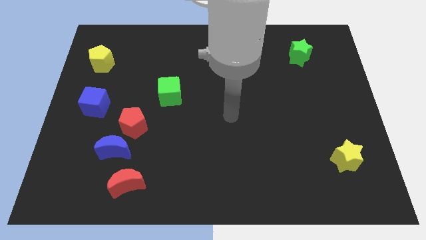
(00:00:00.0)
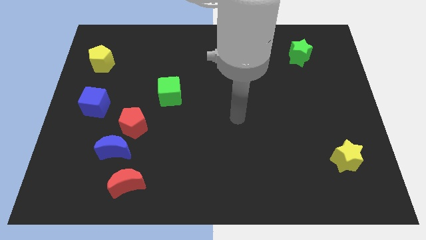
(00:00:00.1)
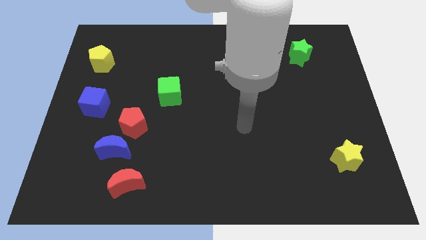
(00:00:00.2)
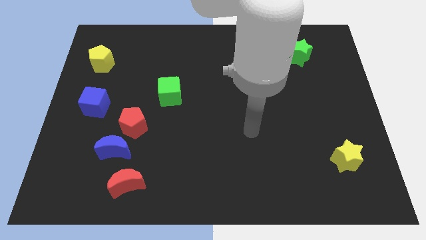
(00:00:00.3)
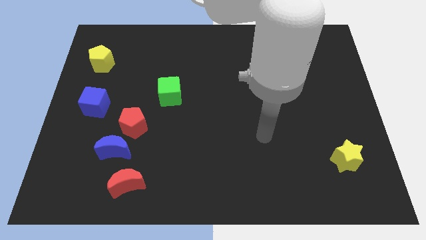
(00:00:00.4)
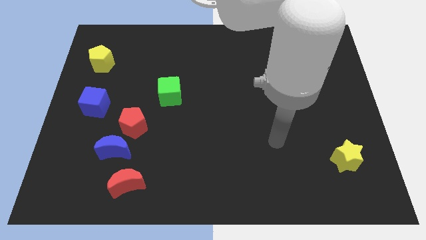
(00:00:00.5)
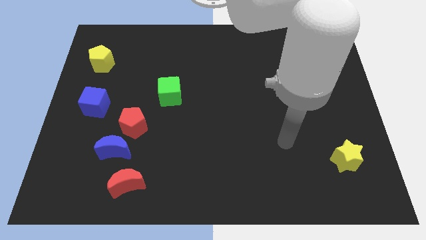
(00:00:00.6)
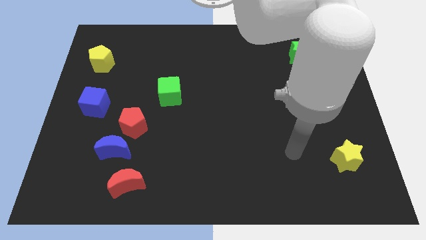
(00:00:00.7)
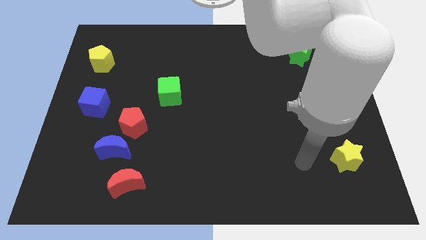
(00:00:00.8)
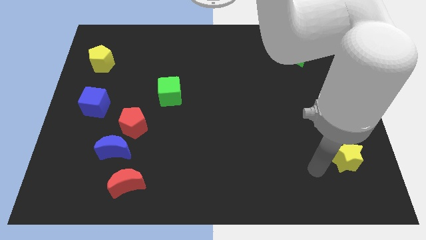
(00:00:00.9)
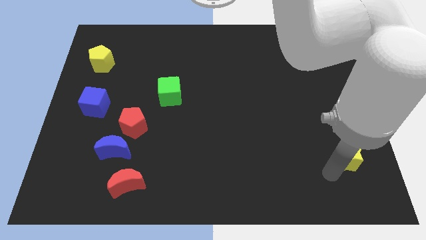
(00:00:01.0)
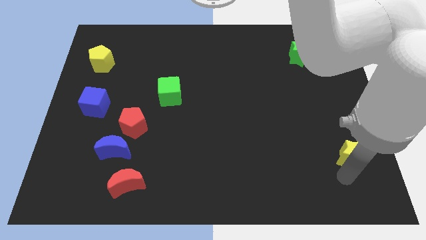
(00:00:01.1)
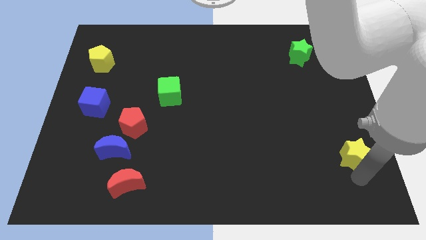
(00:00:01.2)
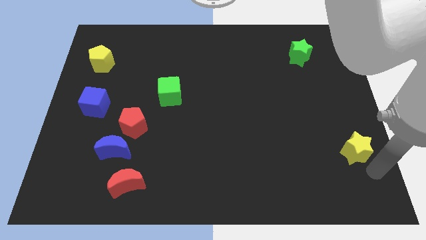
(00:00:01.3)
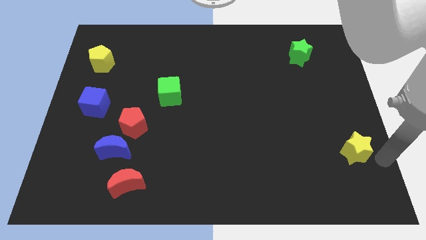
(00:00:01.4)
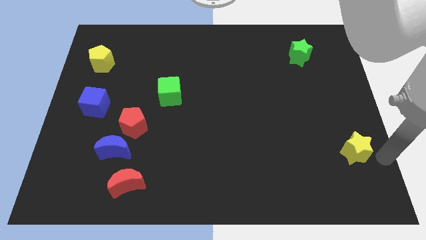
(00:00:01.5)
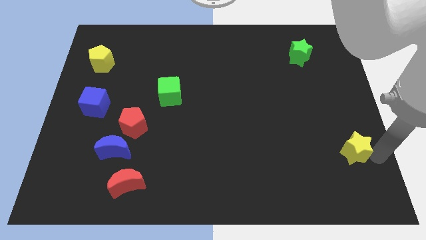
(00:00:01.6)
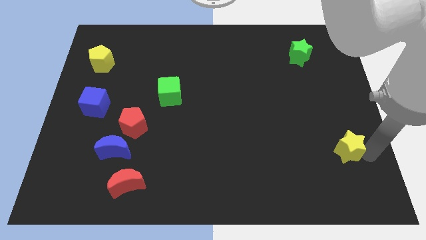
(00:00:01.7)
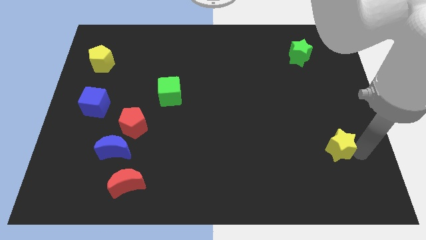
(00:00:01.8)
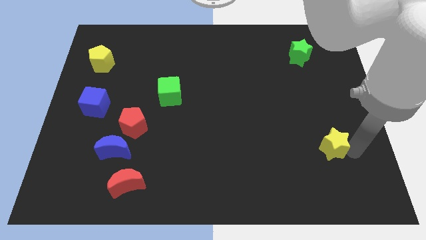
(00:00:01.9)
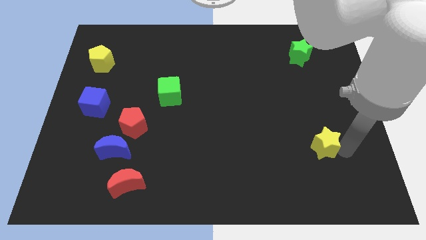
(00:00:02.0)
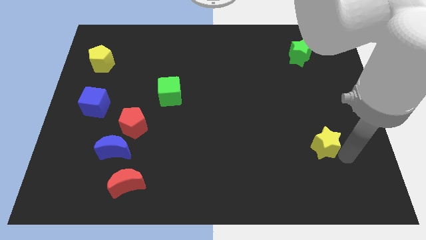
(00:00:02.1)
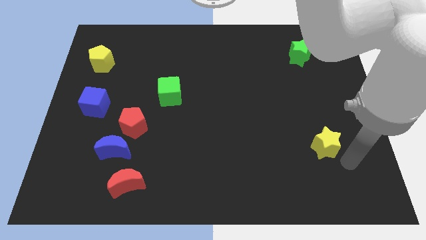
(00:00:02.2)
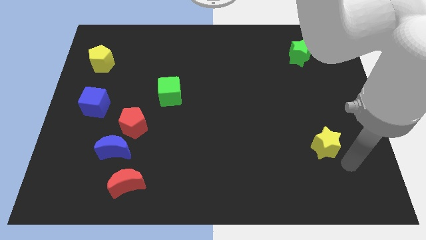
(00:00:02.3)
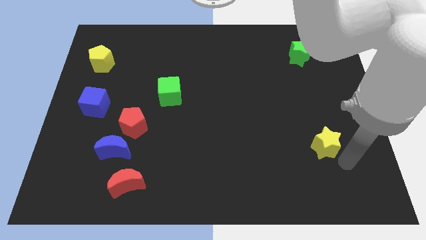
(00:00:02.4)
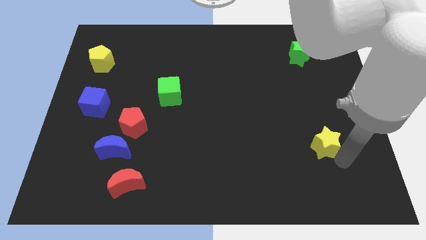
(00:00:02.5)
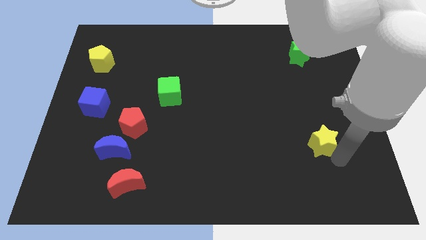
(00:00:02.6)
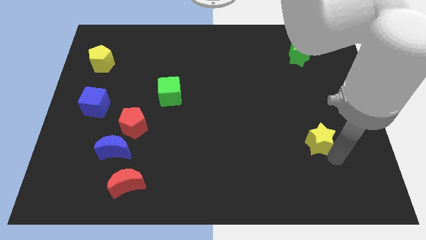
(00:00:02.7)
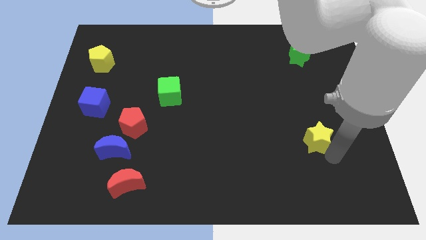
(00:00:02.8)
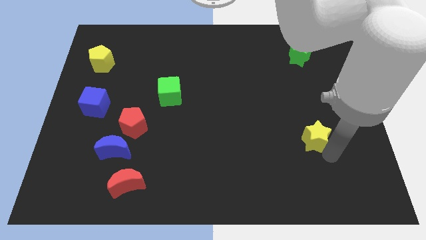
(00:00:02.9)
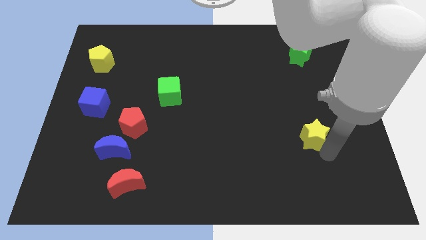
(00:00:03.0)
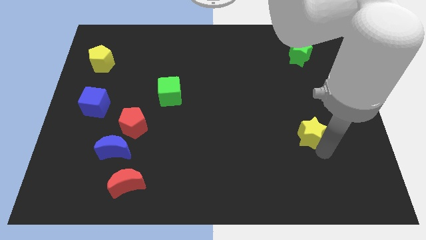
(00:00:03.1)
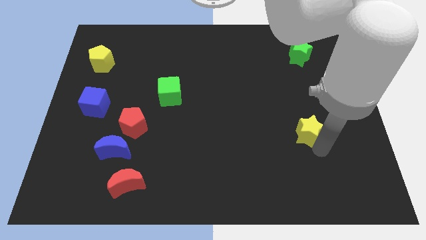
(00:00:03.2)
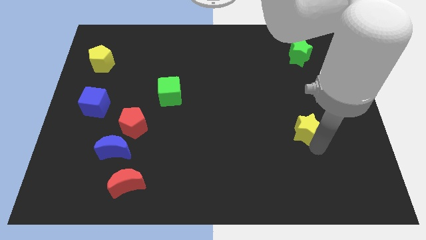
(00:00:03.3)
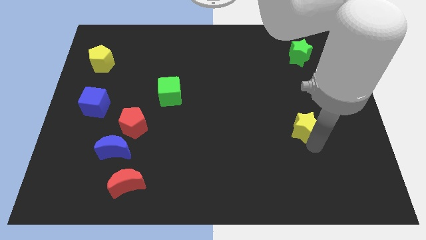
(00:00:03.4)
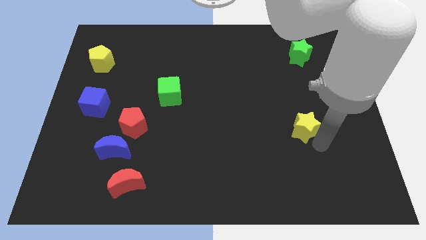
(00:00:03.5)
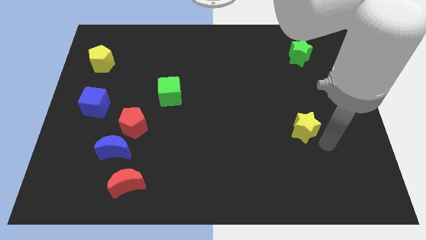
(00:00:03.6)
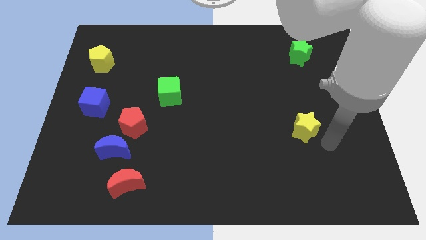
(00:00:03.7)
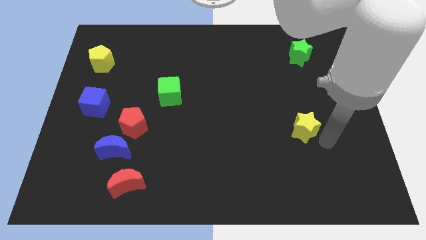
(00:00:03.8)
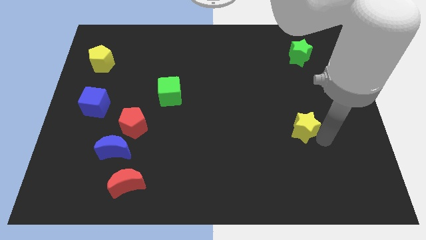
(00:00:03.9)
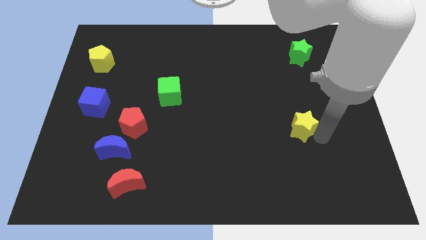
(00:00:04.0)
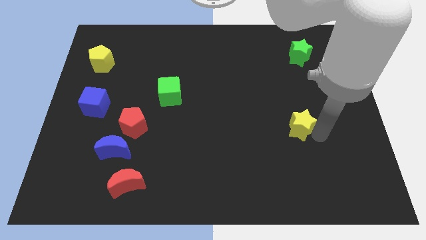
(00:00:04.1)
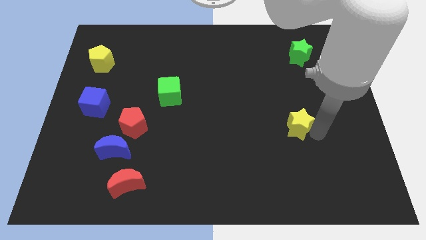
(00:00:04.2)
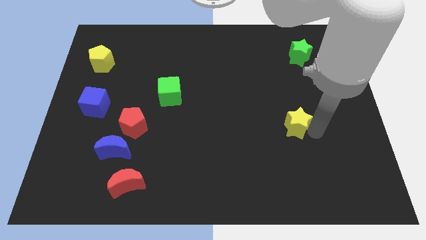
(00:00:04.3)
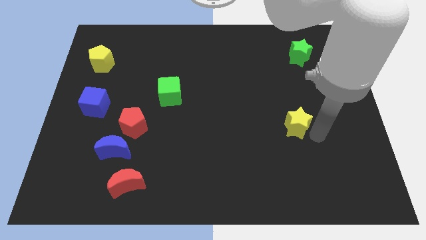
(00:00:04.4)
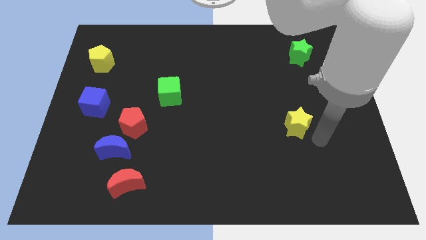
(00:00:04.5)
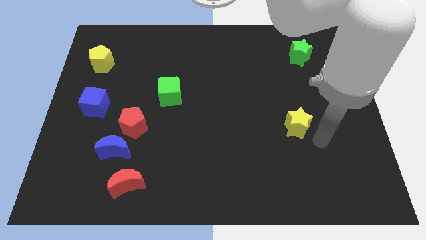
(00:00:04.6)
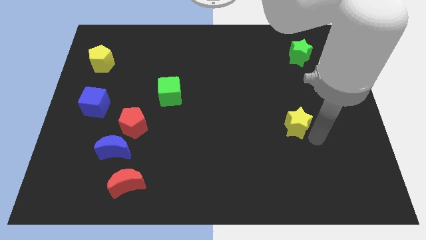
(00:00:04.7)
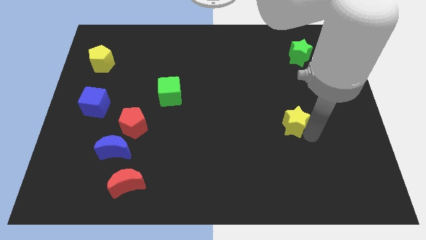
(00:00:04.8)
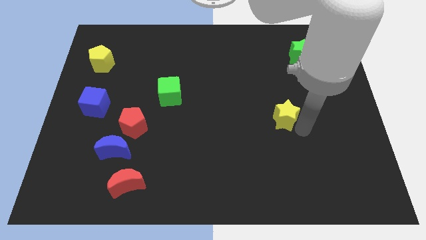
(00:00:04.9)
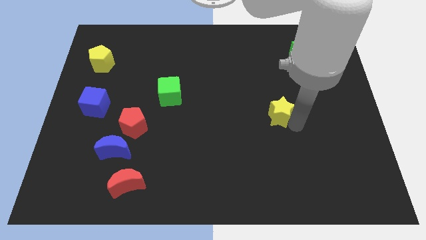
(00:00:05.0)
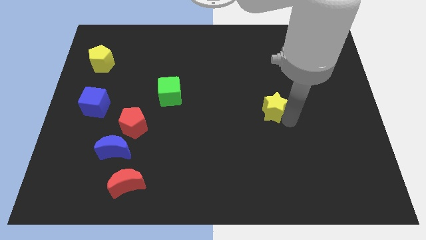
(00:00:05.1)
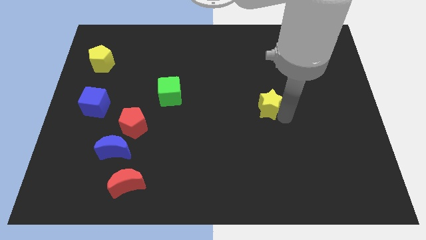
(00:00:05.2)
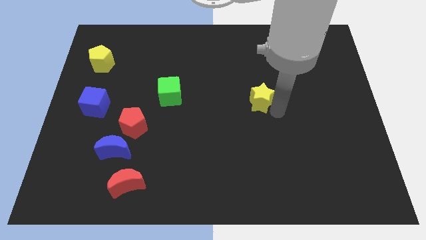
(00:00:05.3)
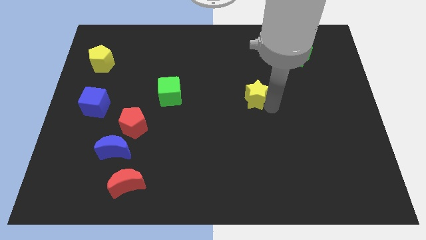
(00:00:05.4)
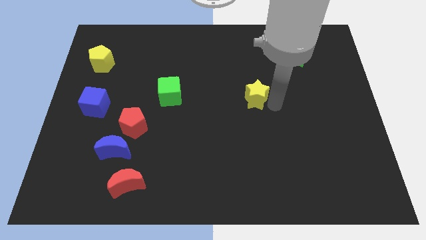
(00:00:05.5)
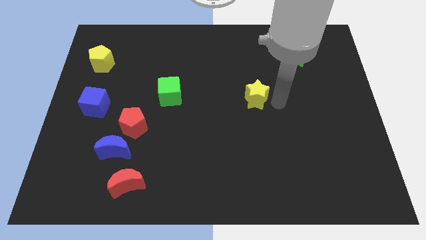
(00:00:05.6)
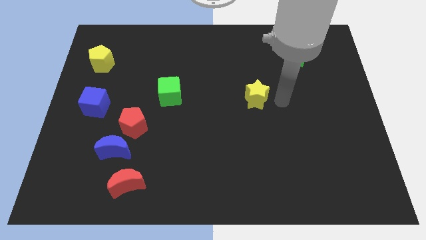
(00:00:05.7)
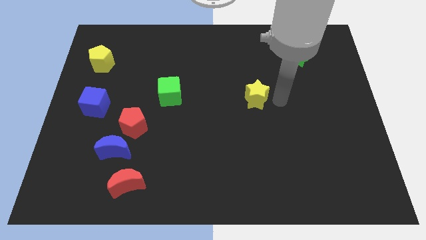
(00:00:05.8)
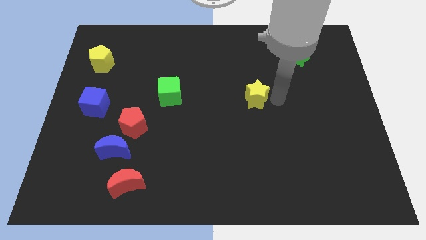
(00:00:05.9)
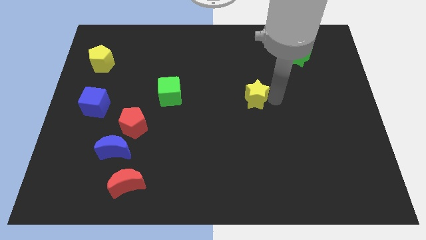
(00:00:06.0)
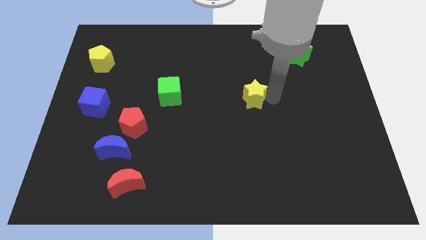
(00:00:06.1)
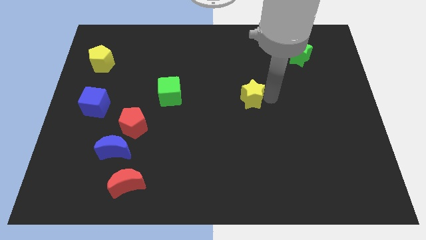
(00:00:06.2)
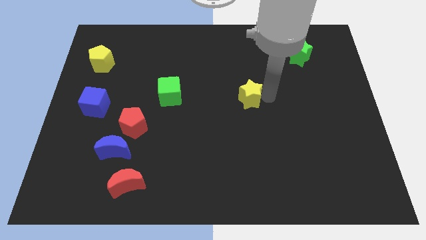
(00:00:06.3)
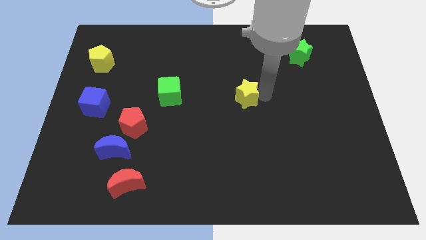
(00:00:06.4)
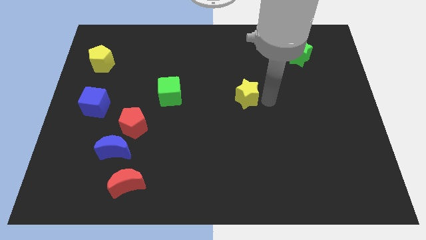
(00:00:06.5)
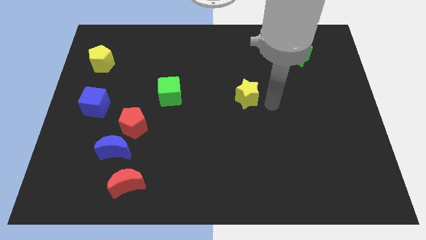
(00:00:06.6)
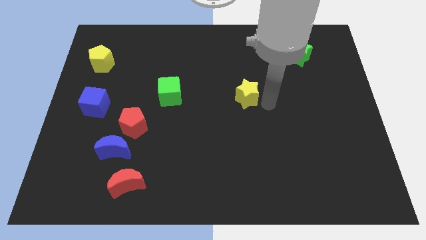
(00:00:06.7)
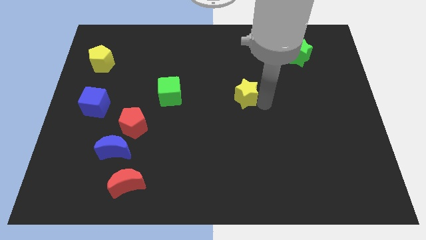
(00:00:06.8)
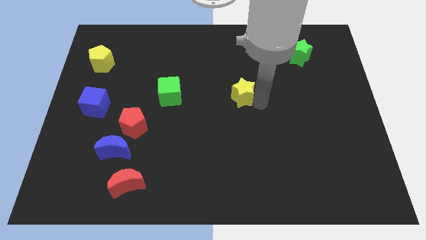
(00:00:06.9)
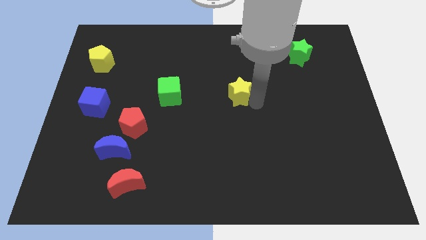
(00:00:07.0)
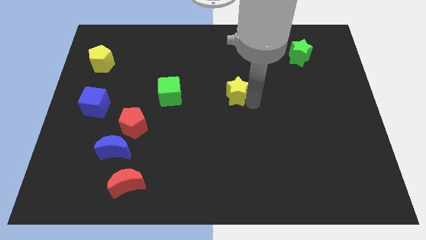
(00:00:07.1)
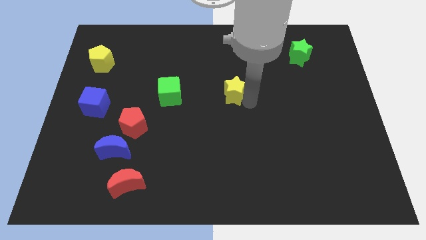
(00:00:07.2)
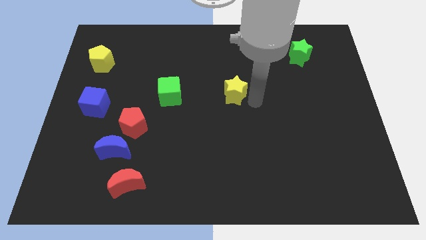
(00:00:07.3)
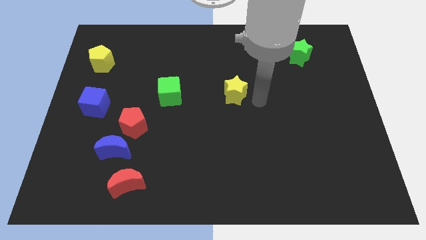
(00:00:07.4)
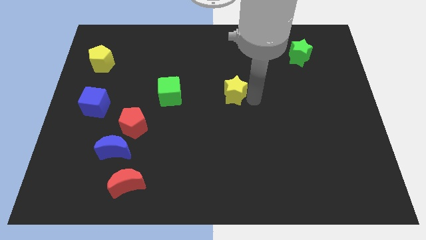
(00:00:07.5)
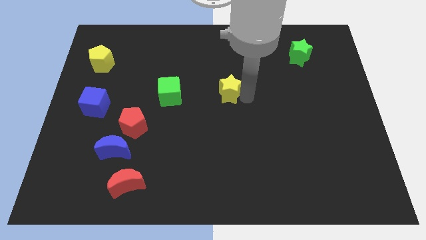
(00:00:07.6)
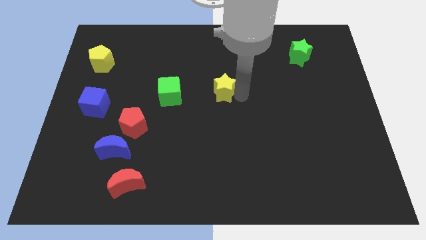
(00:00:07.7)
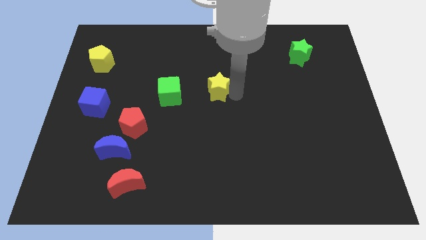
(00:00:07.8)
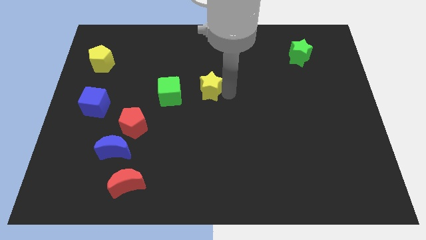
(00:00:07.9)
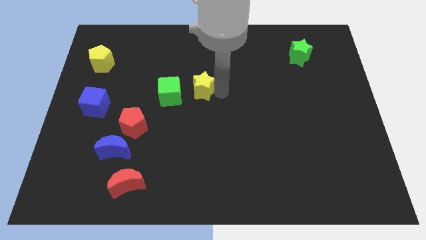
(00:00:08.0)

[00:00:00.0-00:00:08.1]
push the yellow star diagonally up and to the right of the green cube
